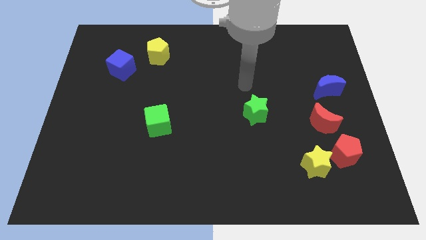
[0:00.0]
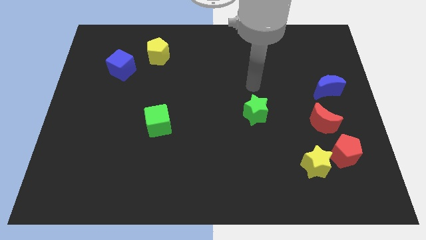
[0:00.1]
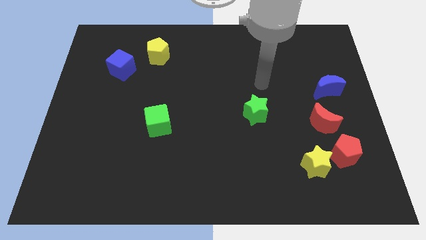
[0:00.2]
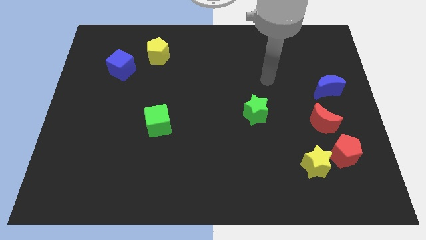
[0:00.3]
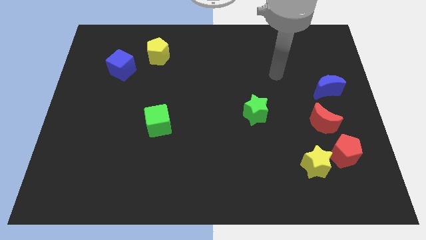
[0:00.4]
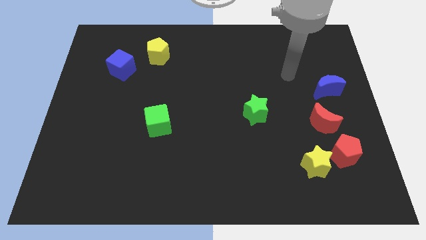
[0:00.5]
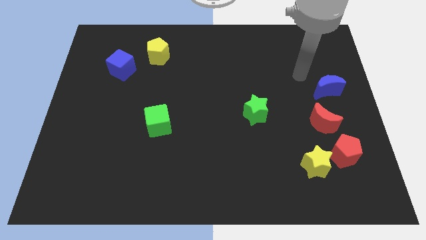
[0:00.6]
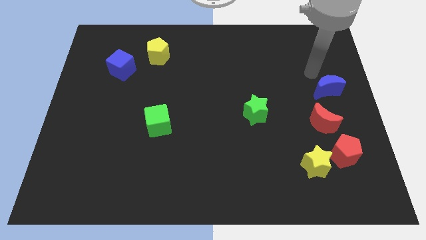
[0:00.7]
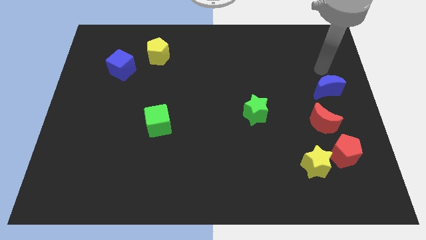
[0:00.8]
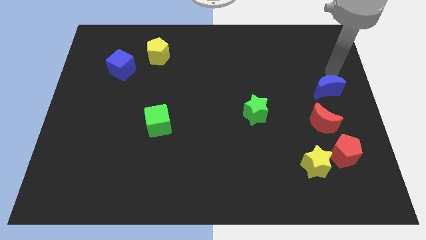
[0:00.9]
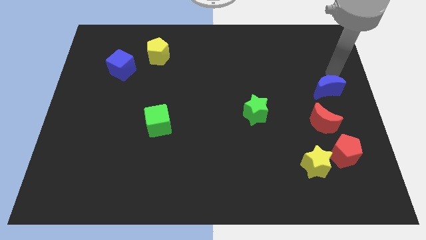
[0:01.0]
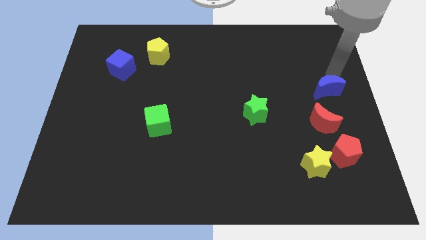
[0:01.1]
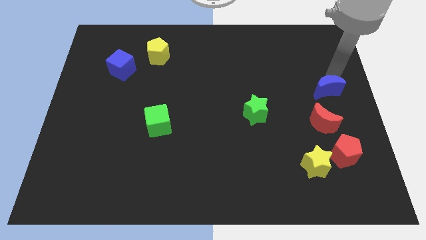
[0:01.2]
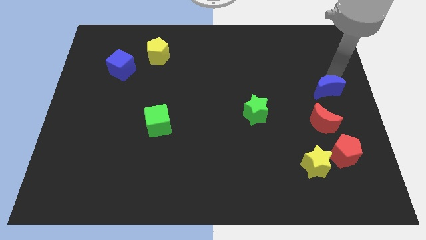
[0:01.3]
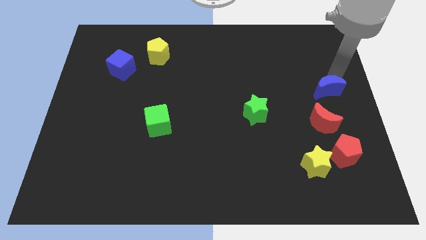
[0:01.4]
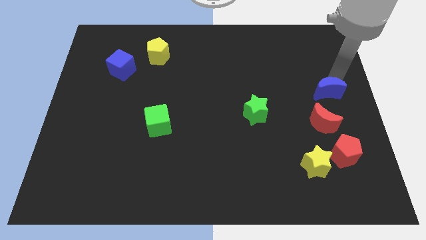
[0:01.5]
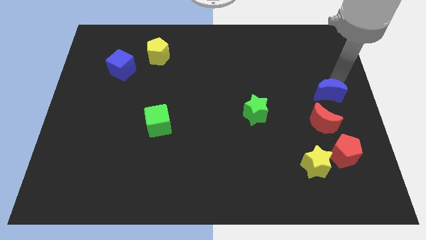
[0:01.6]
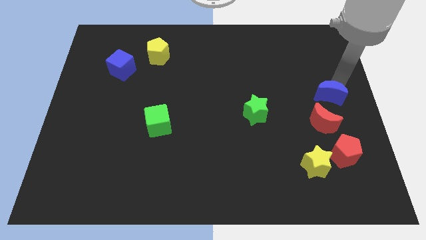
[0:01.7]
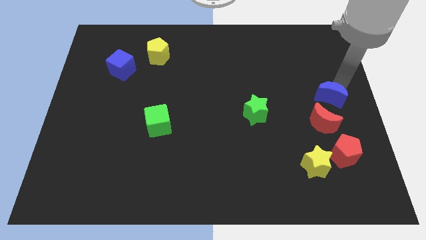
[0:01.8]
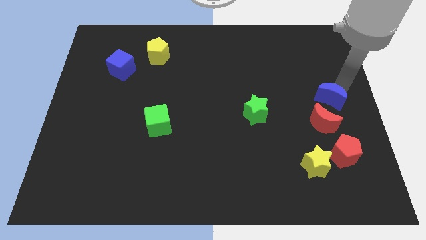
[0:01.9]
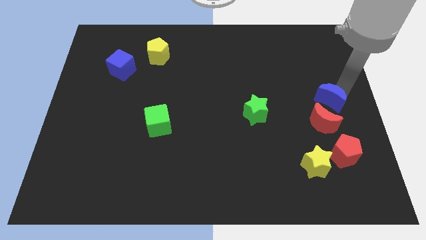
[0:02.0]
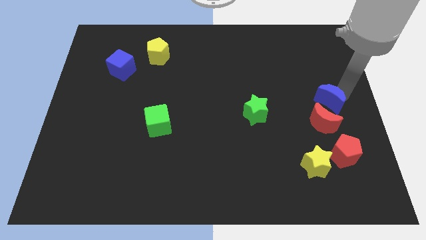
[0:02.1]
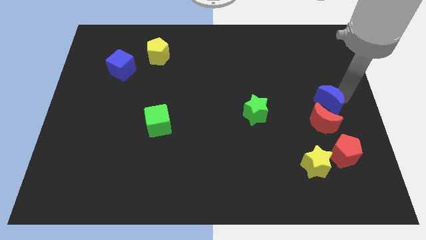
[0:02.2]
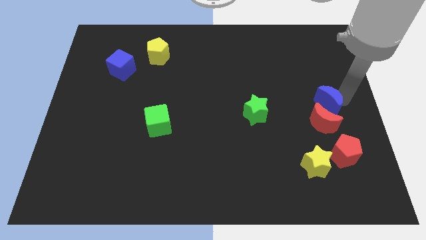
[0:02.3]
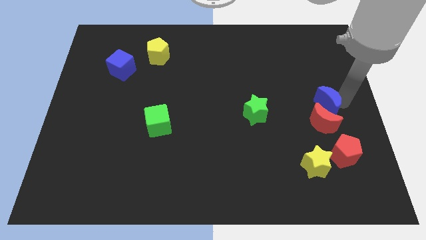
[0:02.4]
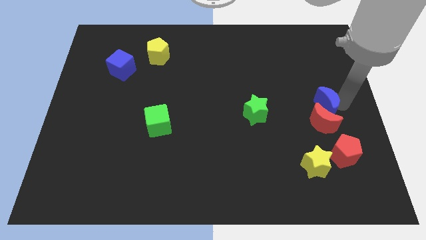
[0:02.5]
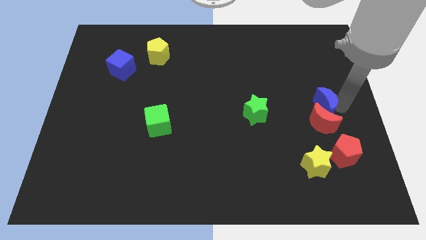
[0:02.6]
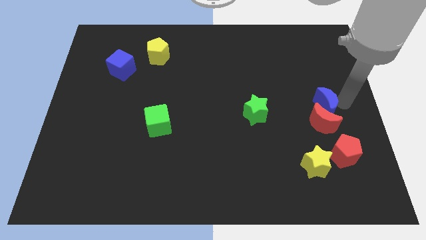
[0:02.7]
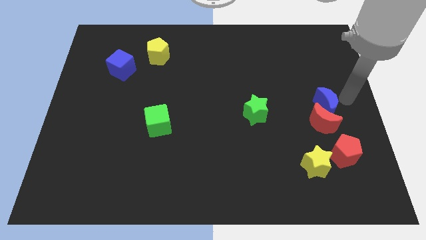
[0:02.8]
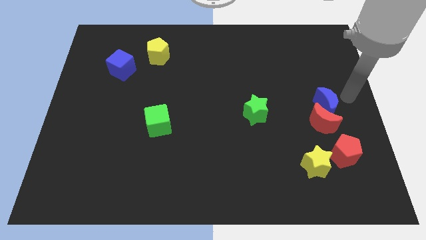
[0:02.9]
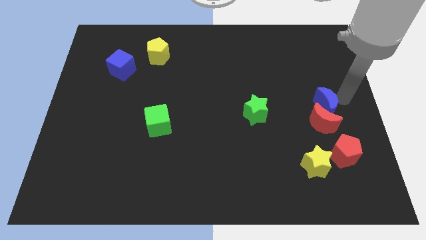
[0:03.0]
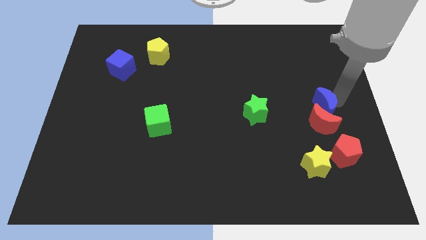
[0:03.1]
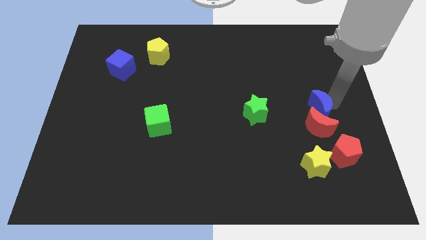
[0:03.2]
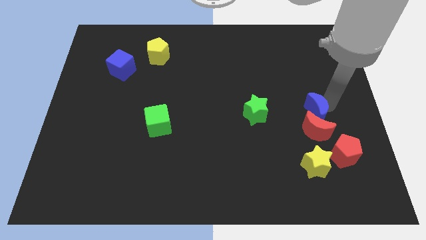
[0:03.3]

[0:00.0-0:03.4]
slide the blue moon down and to the left diagonally slightly

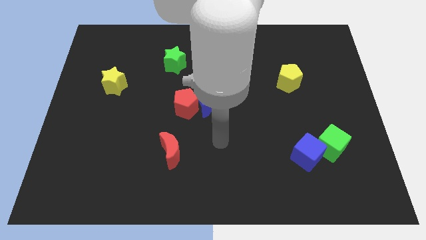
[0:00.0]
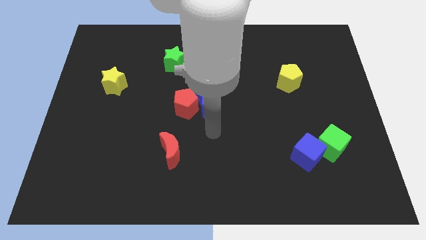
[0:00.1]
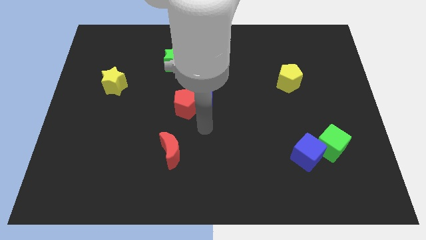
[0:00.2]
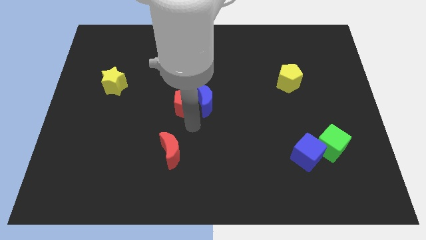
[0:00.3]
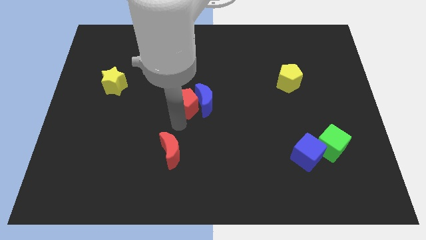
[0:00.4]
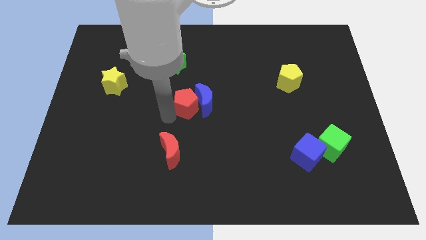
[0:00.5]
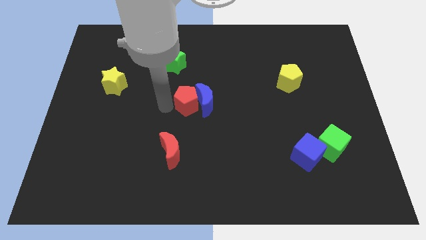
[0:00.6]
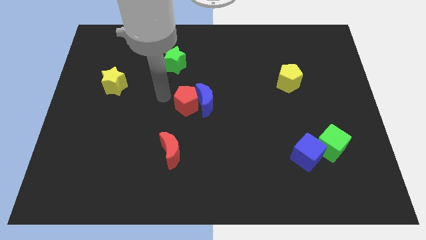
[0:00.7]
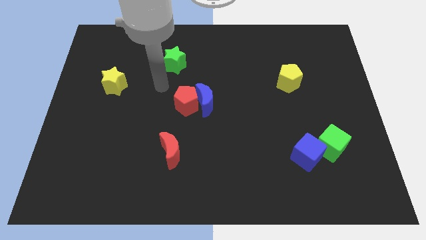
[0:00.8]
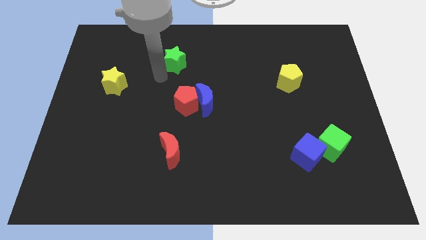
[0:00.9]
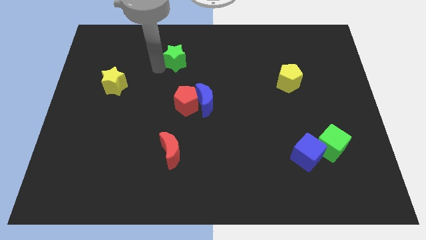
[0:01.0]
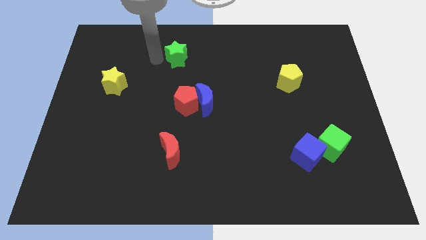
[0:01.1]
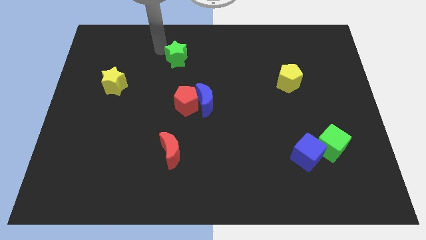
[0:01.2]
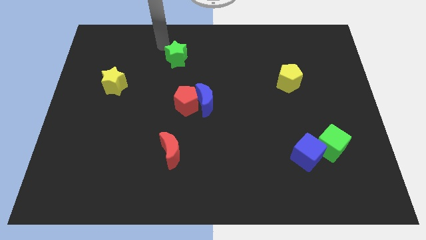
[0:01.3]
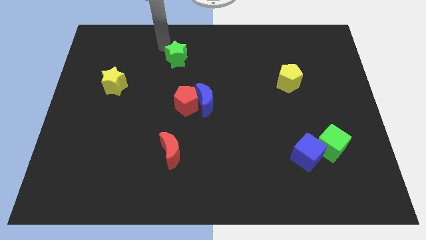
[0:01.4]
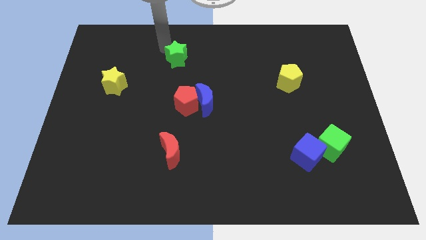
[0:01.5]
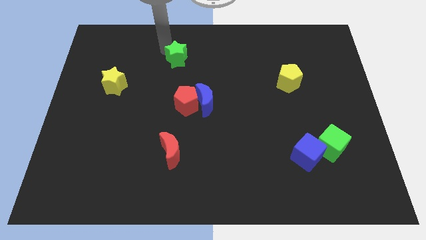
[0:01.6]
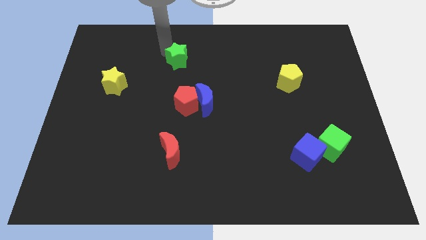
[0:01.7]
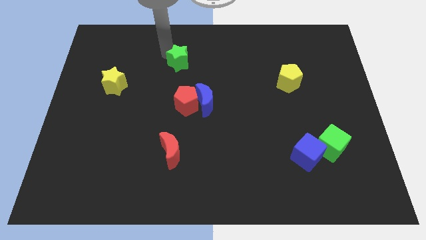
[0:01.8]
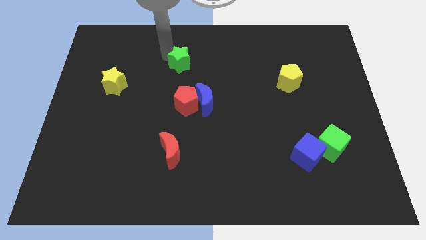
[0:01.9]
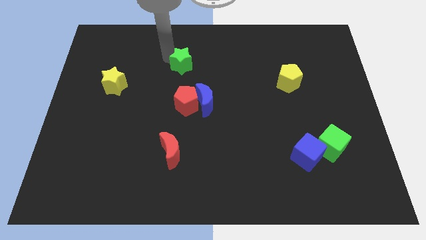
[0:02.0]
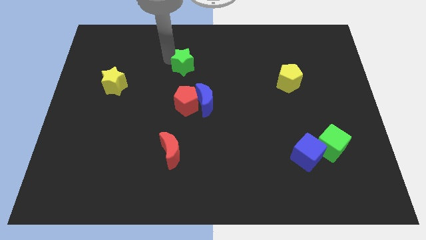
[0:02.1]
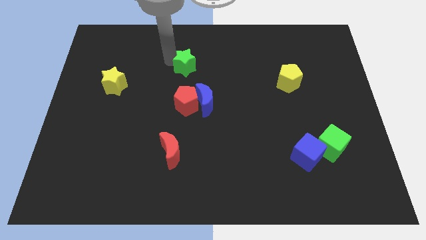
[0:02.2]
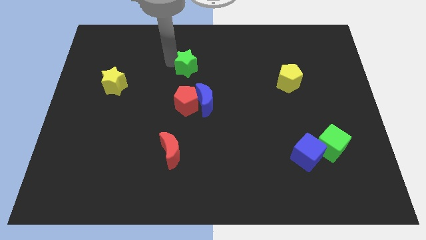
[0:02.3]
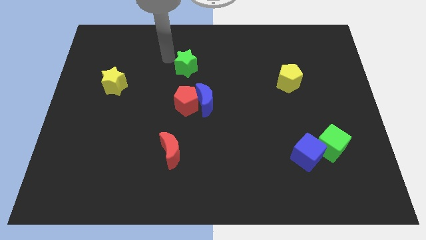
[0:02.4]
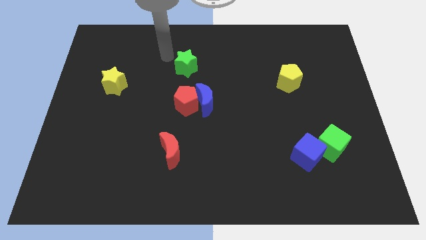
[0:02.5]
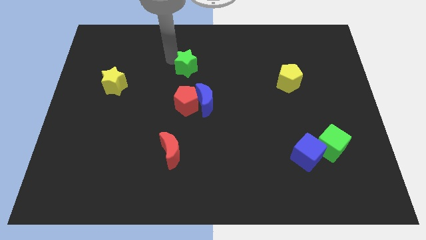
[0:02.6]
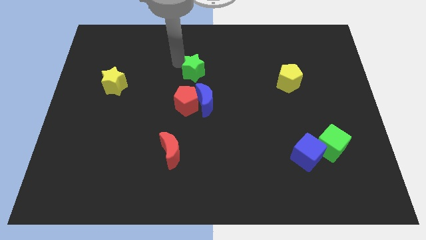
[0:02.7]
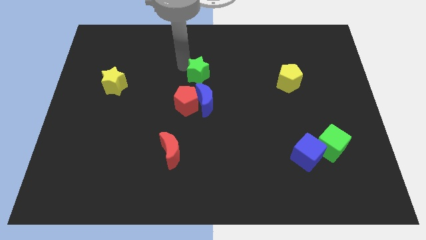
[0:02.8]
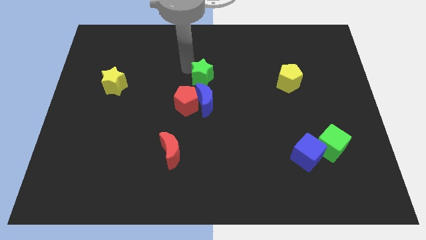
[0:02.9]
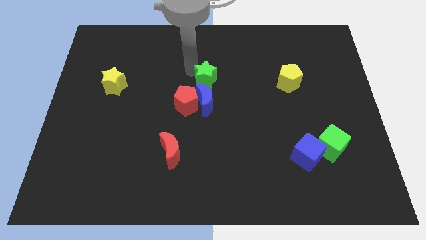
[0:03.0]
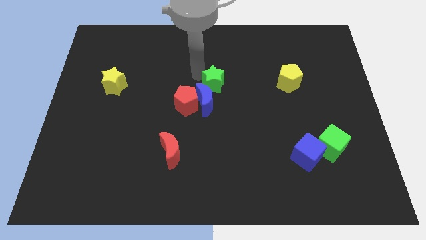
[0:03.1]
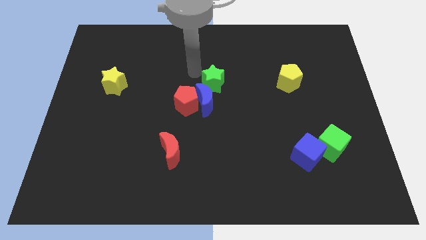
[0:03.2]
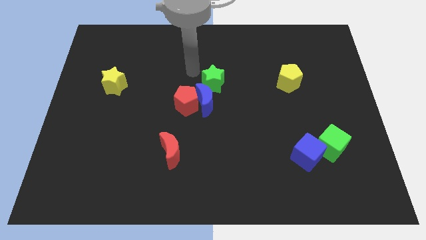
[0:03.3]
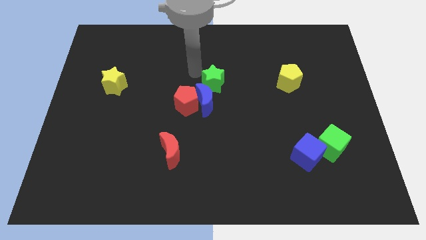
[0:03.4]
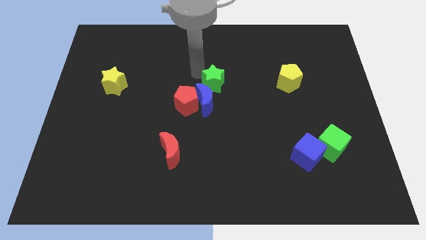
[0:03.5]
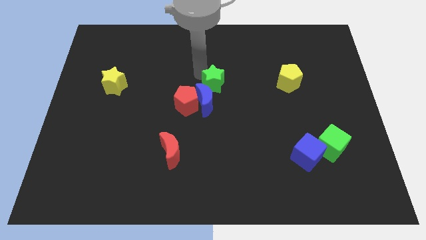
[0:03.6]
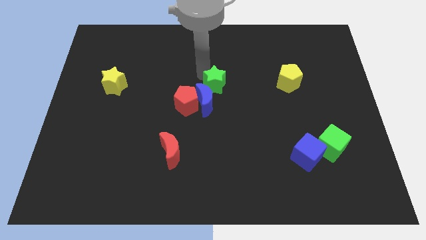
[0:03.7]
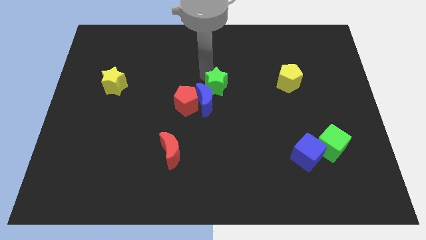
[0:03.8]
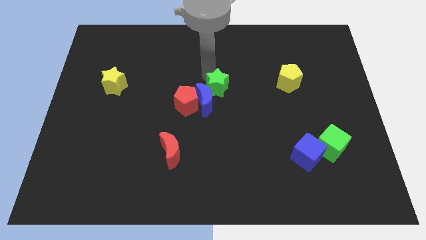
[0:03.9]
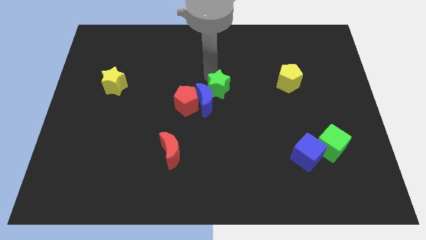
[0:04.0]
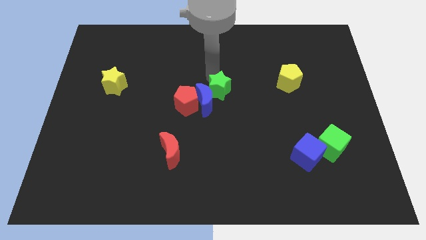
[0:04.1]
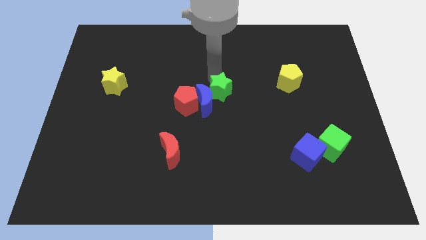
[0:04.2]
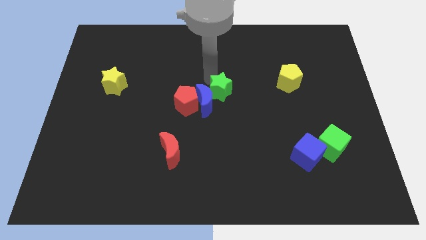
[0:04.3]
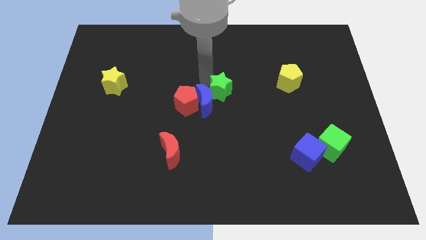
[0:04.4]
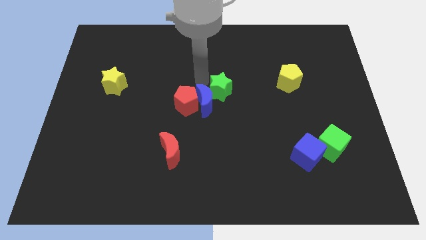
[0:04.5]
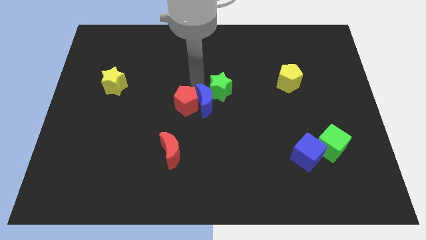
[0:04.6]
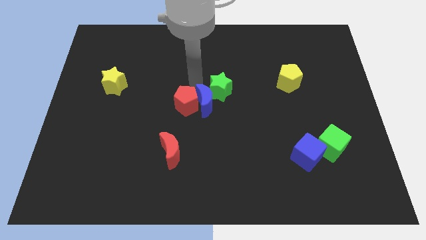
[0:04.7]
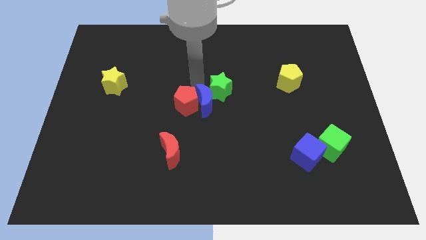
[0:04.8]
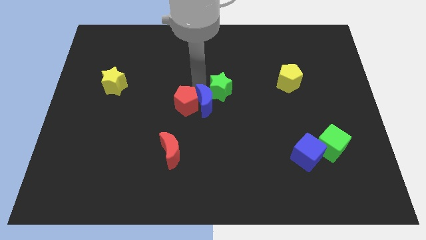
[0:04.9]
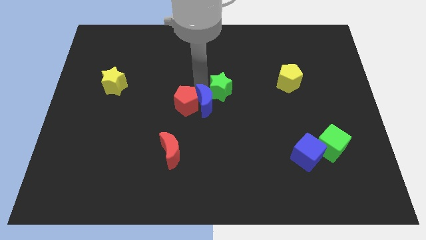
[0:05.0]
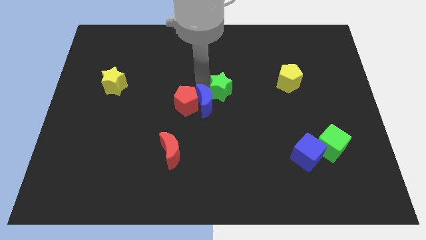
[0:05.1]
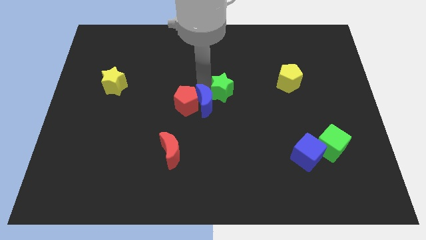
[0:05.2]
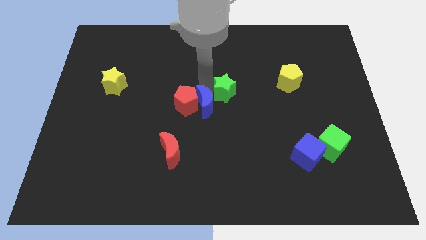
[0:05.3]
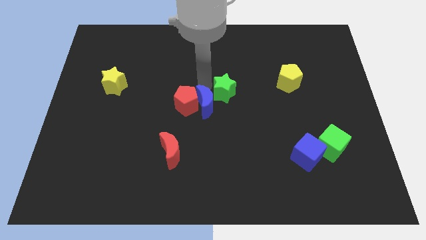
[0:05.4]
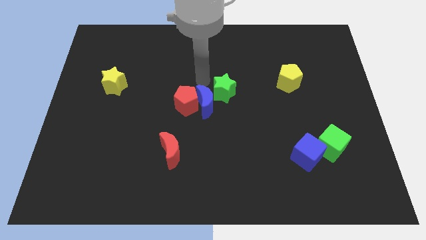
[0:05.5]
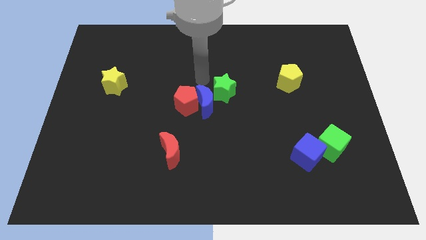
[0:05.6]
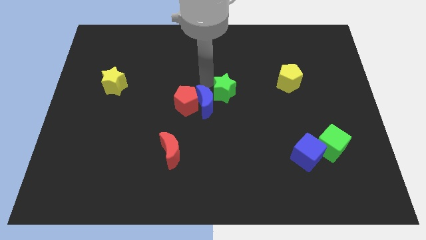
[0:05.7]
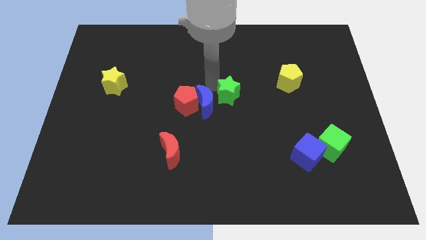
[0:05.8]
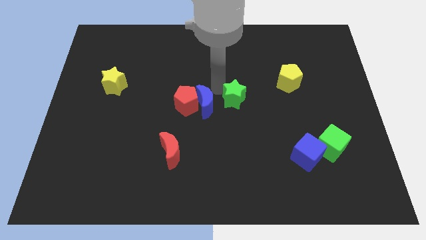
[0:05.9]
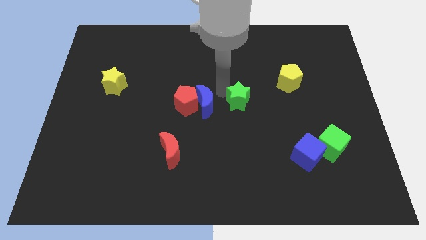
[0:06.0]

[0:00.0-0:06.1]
move the green star downwards and right
